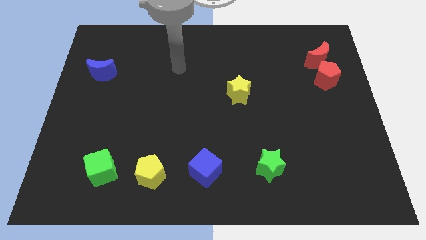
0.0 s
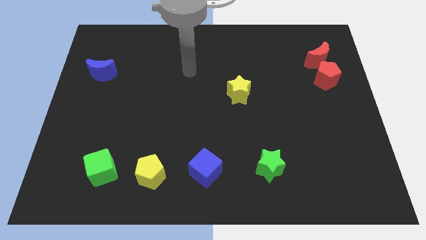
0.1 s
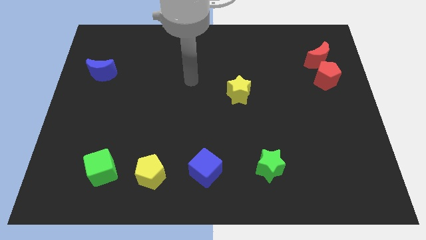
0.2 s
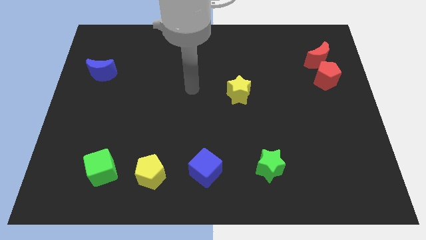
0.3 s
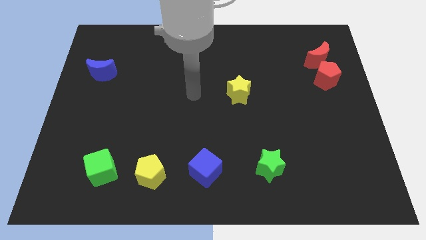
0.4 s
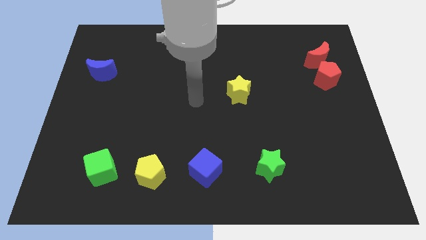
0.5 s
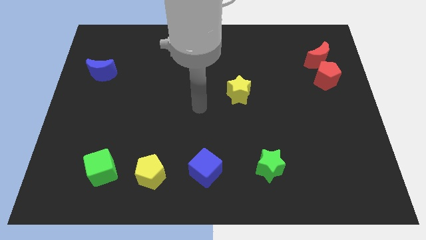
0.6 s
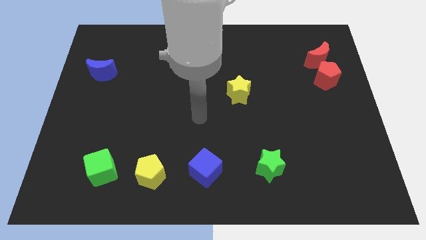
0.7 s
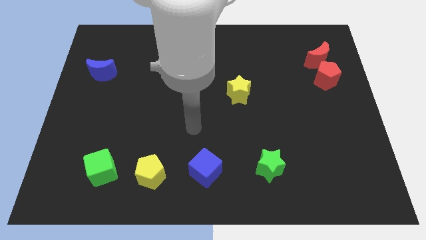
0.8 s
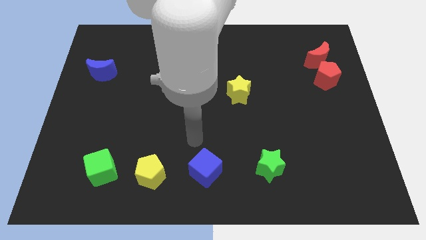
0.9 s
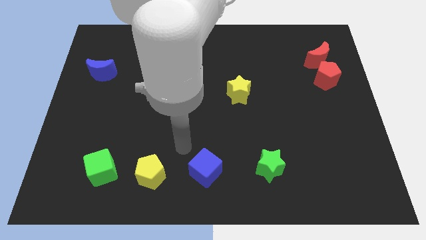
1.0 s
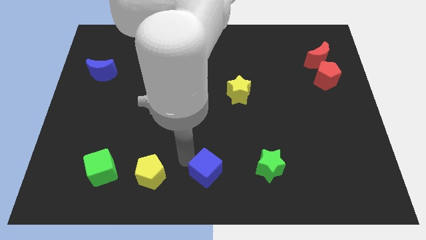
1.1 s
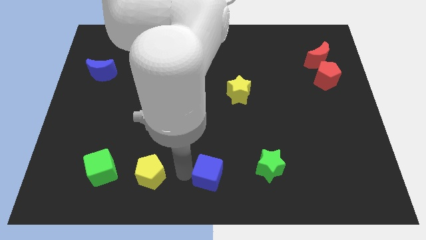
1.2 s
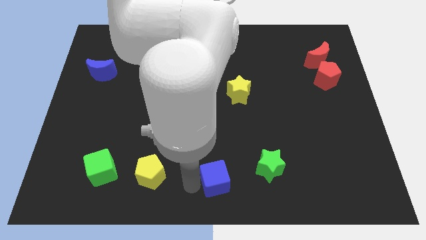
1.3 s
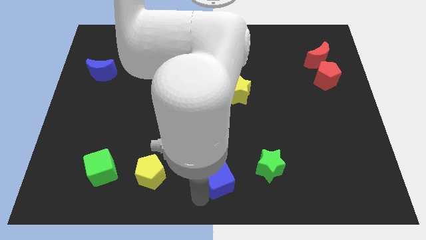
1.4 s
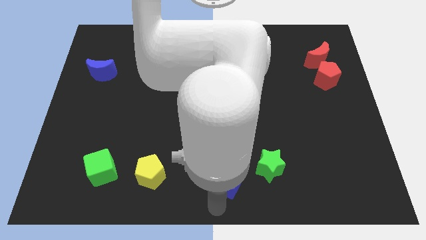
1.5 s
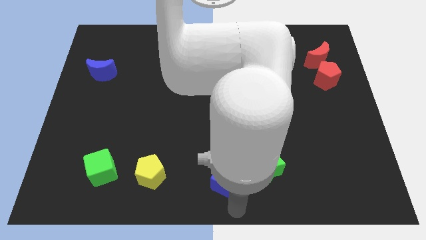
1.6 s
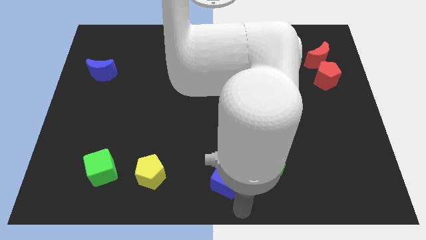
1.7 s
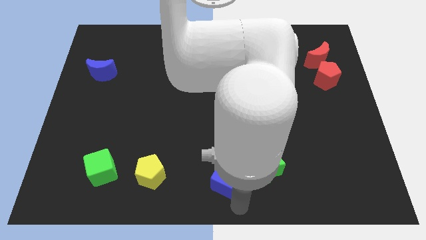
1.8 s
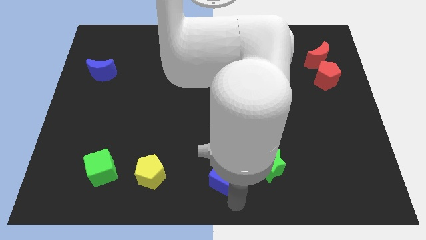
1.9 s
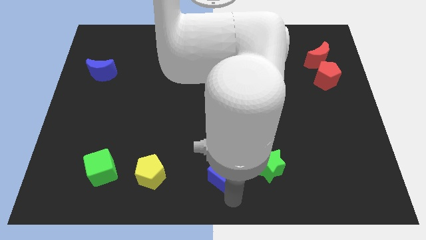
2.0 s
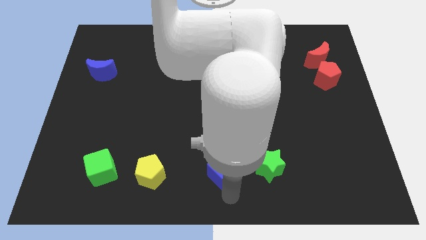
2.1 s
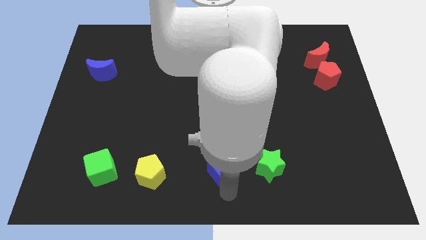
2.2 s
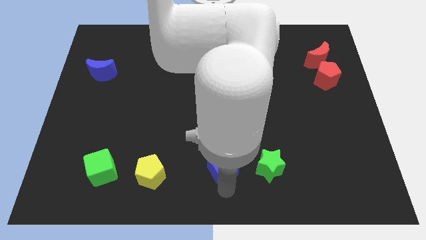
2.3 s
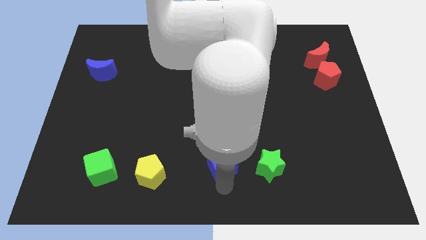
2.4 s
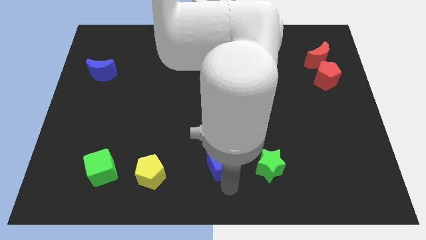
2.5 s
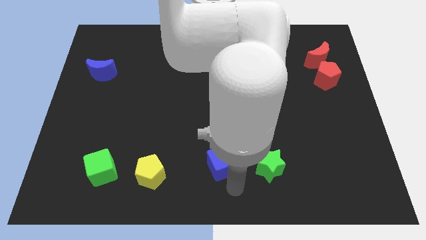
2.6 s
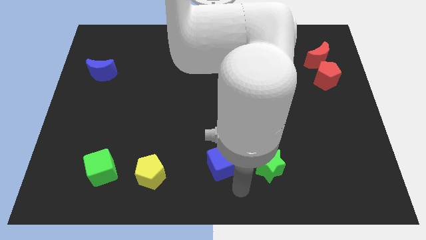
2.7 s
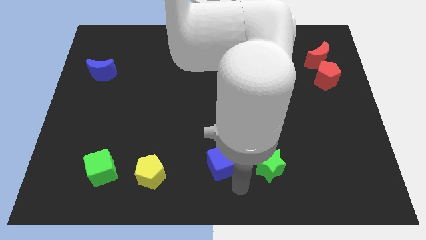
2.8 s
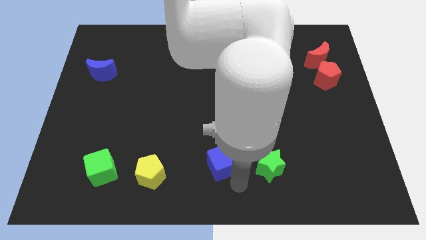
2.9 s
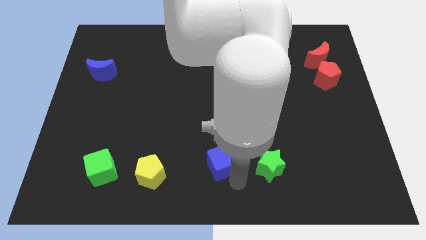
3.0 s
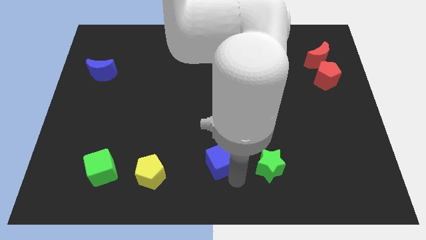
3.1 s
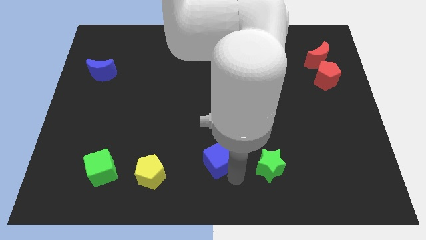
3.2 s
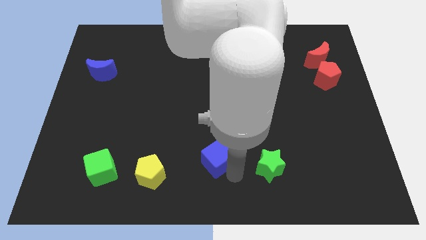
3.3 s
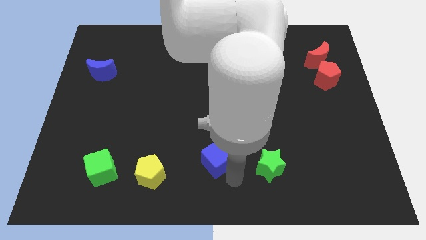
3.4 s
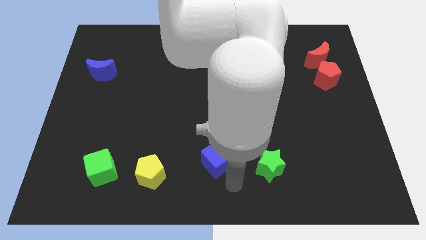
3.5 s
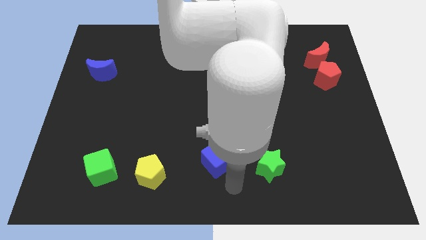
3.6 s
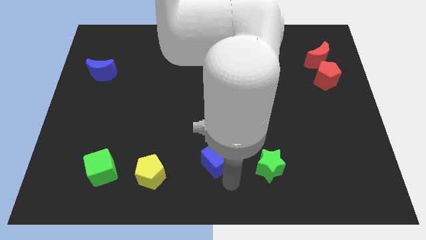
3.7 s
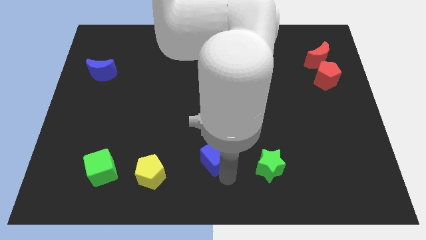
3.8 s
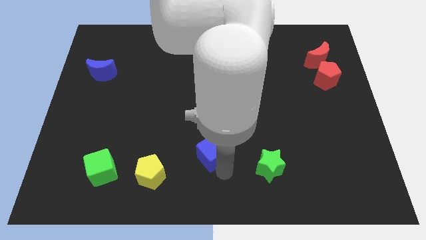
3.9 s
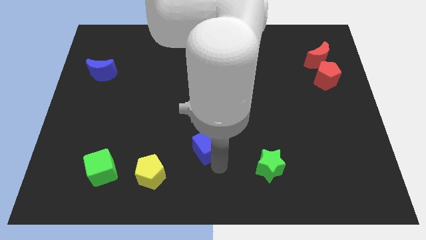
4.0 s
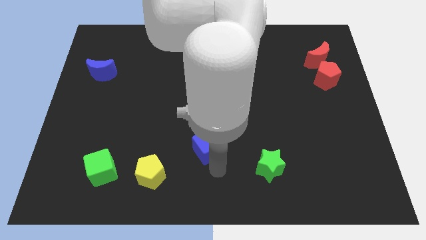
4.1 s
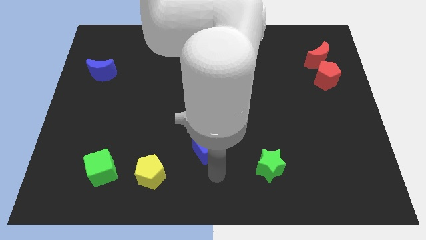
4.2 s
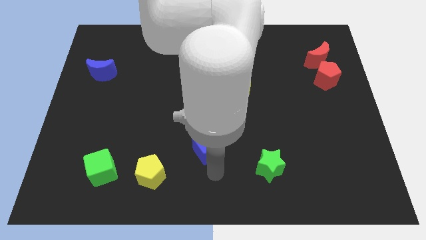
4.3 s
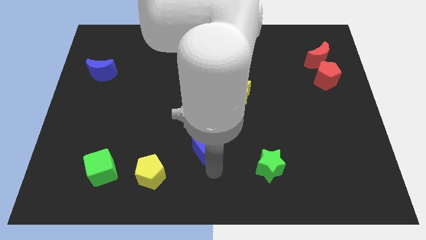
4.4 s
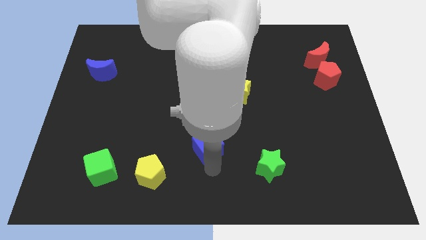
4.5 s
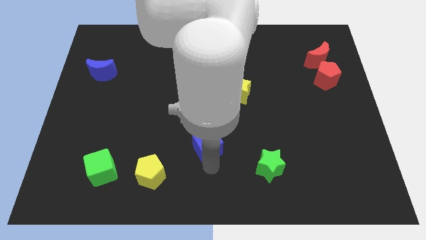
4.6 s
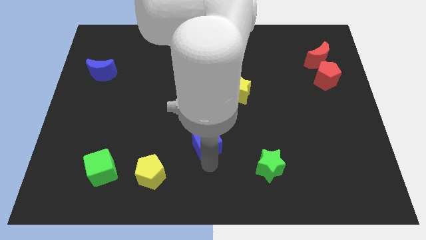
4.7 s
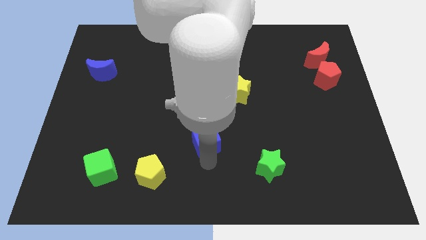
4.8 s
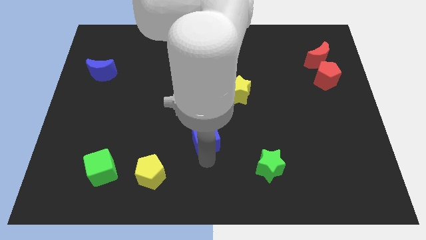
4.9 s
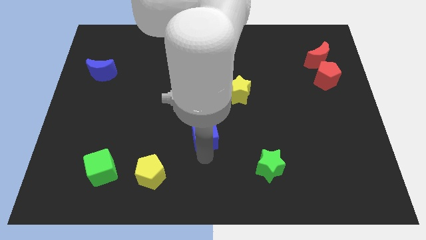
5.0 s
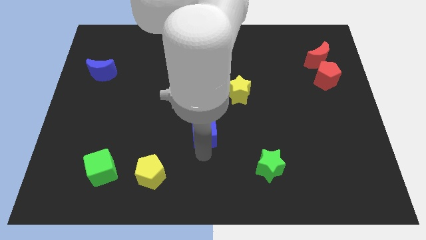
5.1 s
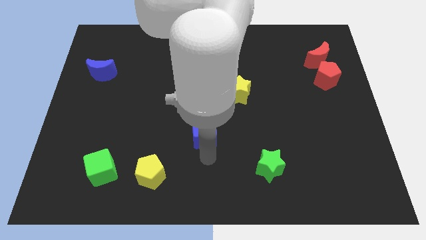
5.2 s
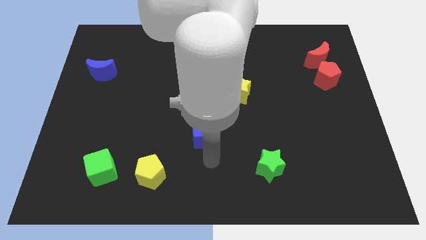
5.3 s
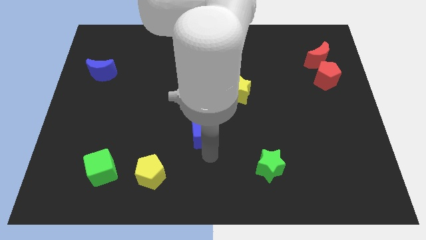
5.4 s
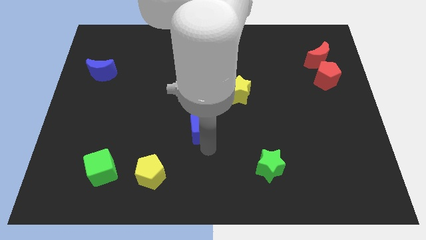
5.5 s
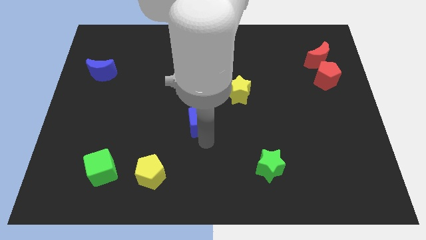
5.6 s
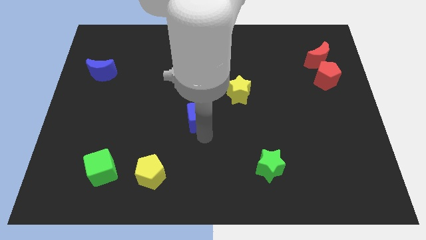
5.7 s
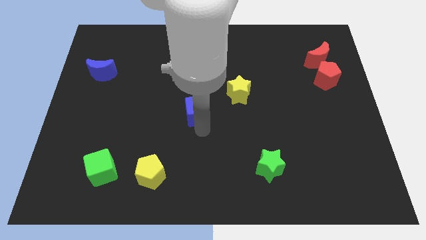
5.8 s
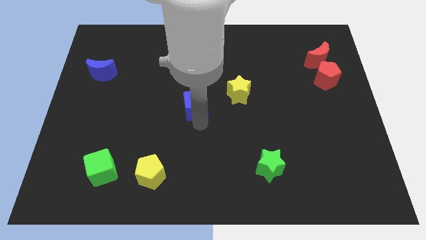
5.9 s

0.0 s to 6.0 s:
put the blue cube left of the yellow star

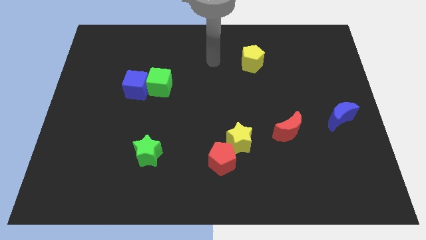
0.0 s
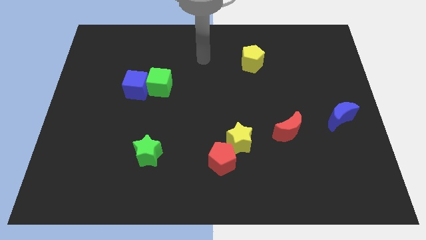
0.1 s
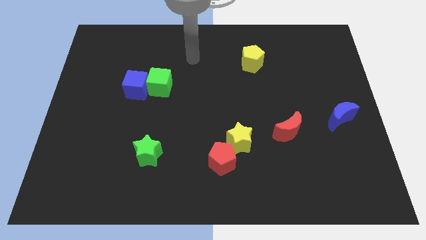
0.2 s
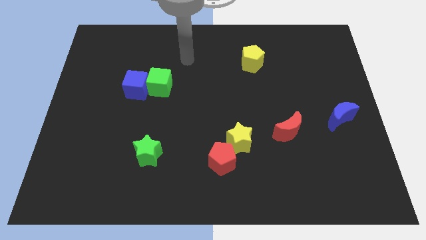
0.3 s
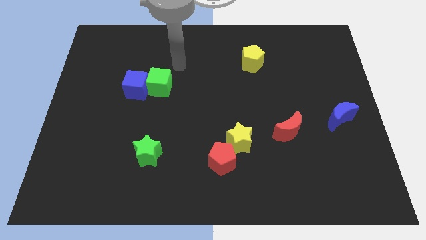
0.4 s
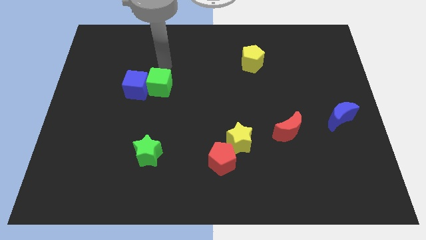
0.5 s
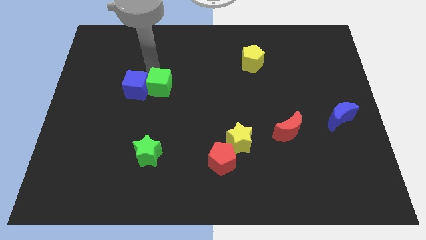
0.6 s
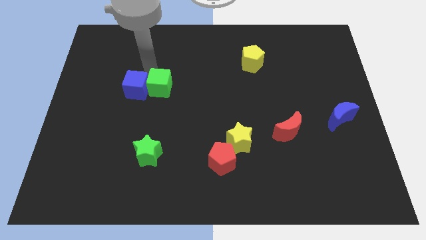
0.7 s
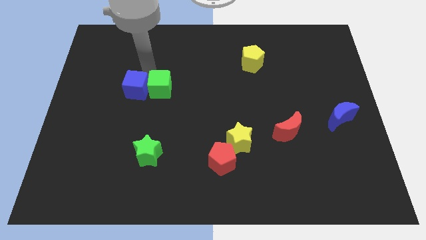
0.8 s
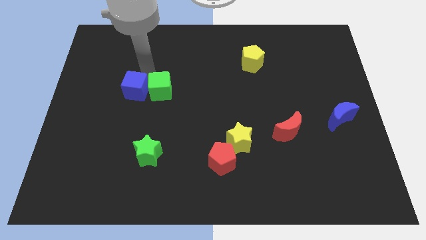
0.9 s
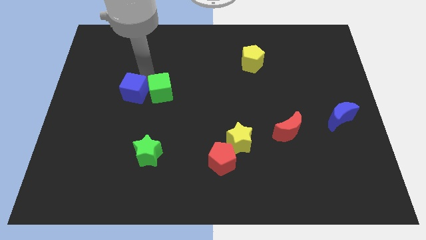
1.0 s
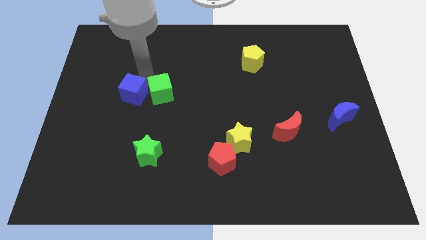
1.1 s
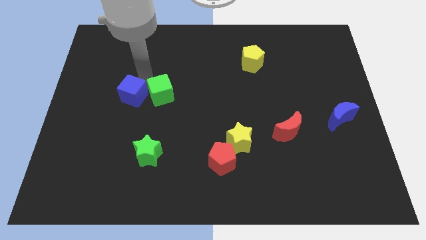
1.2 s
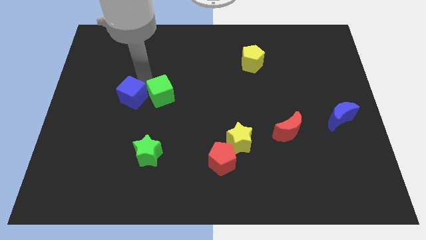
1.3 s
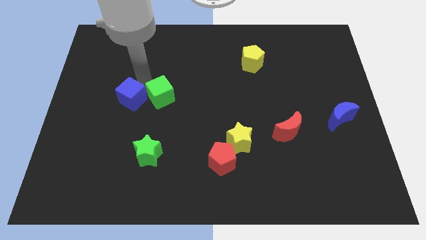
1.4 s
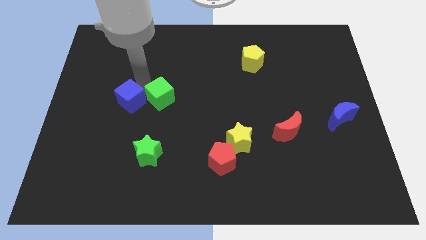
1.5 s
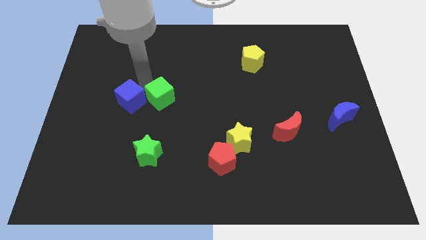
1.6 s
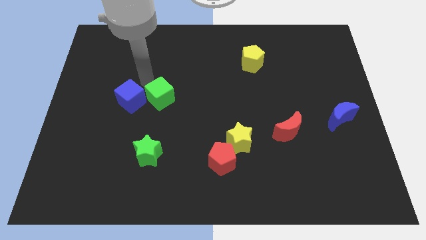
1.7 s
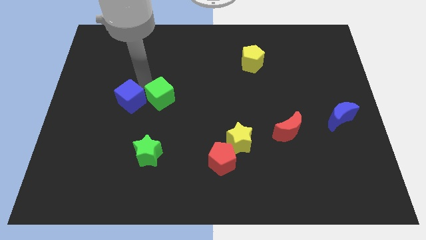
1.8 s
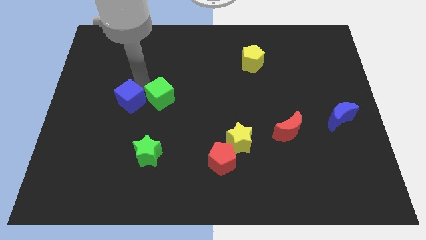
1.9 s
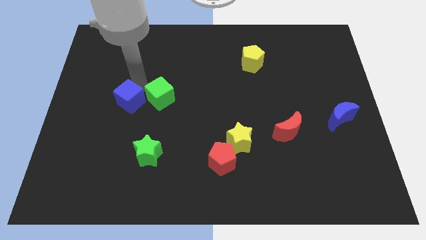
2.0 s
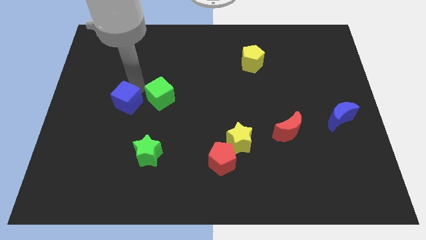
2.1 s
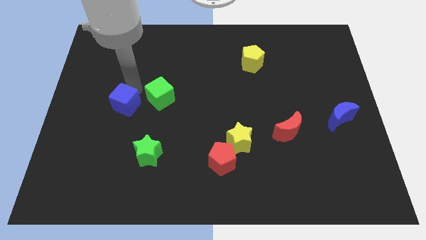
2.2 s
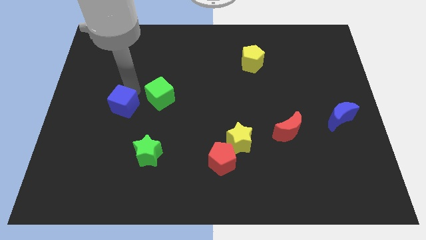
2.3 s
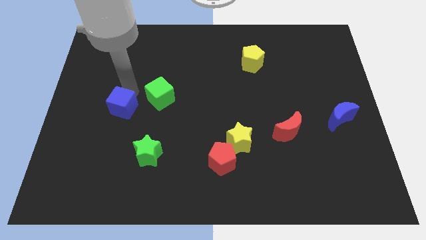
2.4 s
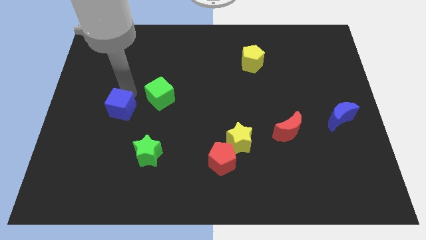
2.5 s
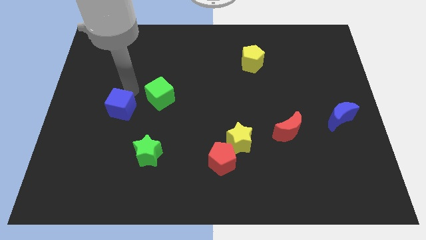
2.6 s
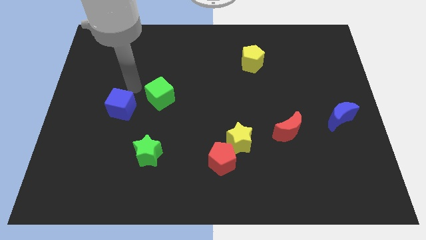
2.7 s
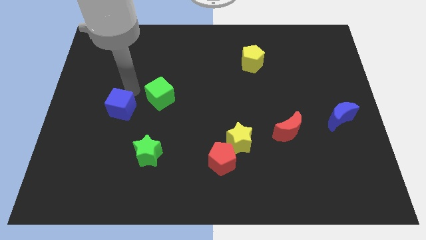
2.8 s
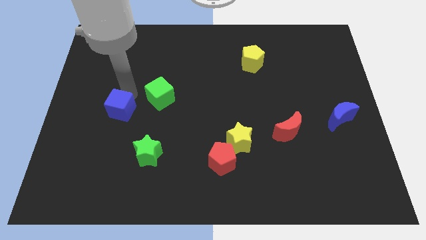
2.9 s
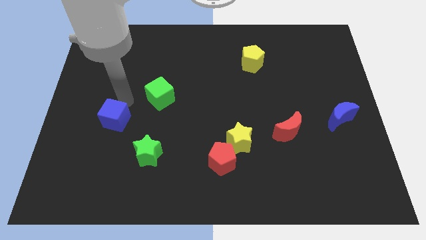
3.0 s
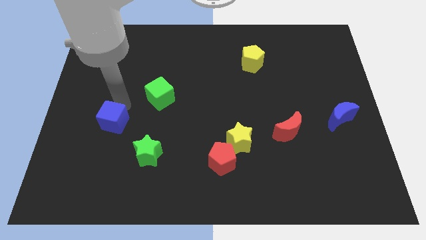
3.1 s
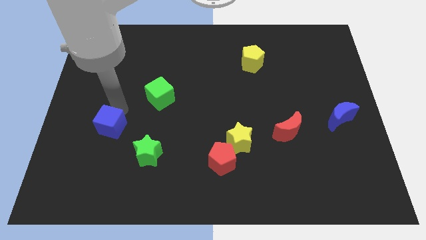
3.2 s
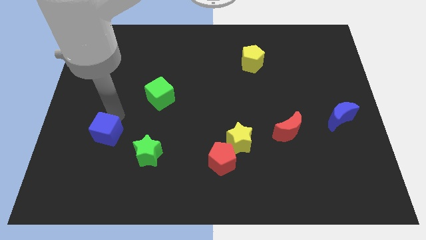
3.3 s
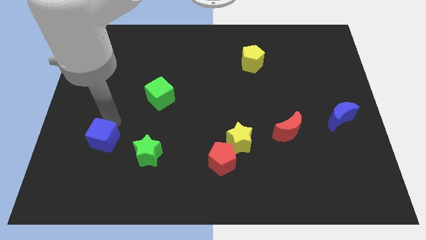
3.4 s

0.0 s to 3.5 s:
push the blue cube left of the green star
